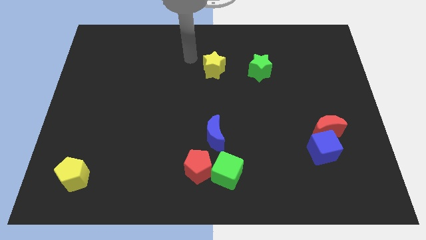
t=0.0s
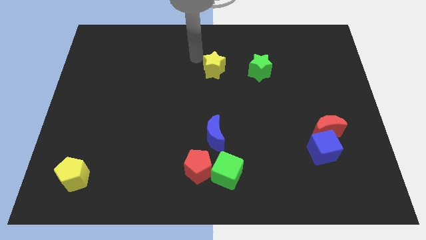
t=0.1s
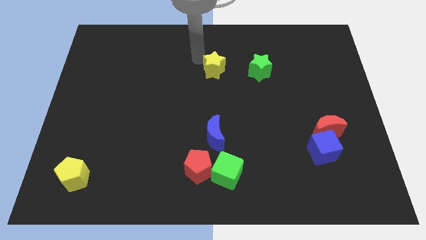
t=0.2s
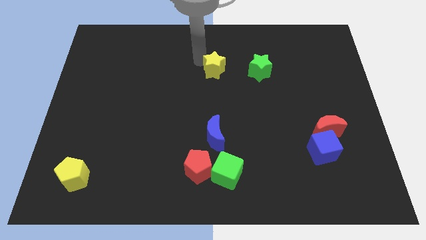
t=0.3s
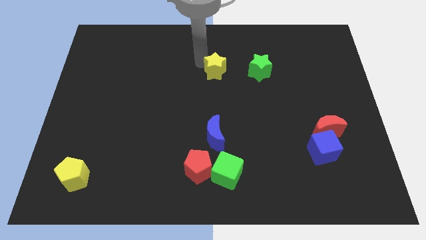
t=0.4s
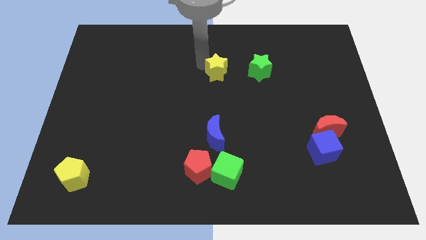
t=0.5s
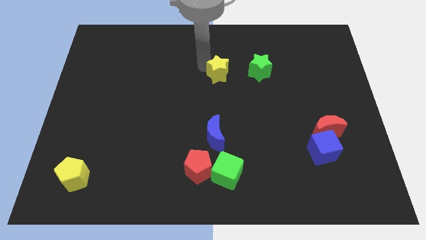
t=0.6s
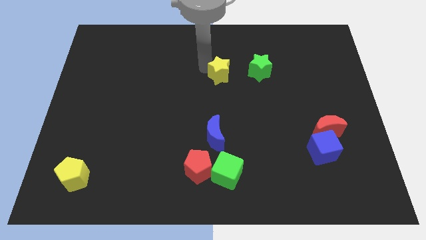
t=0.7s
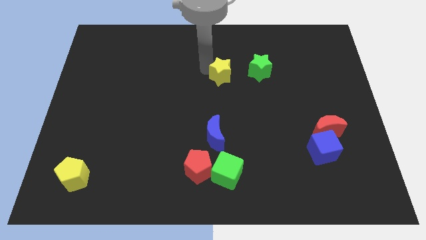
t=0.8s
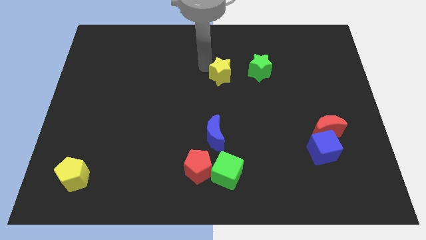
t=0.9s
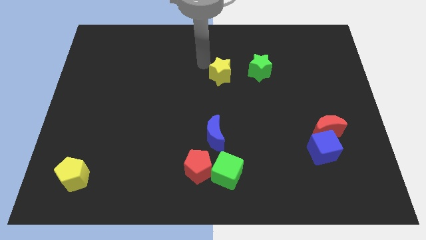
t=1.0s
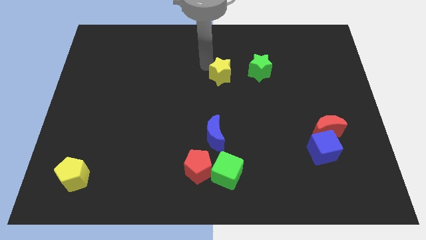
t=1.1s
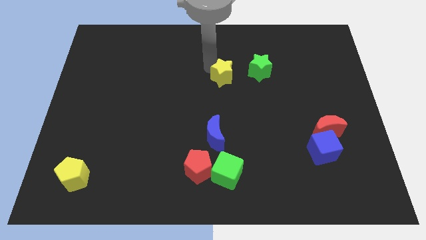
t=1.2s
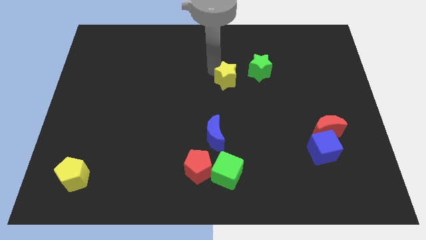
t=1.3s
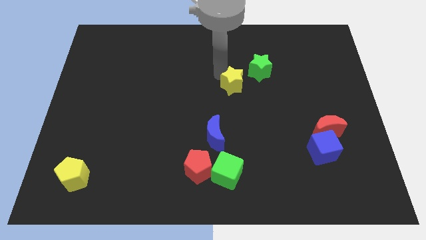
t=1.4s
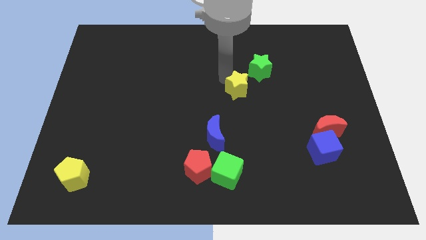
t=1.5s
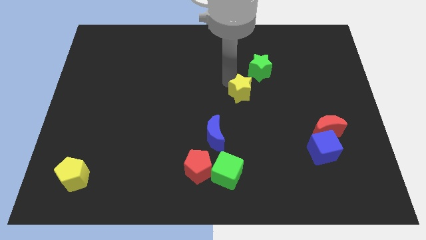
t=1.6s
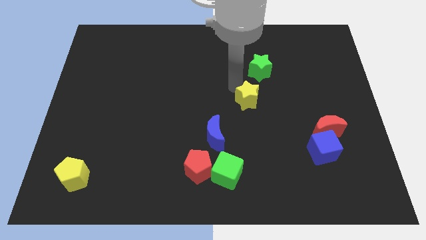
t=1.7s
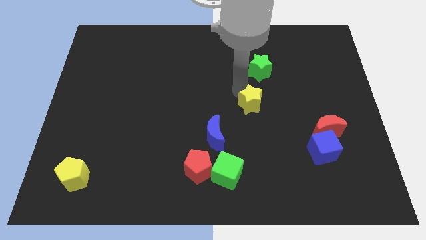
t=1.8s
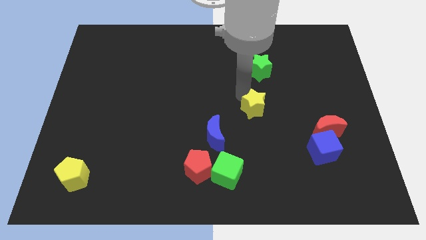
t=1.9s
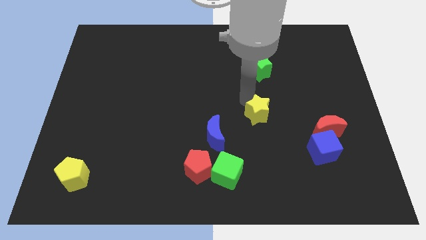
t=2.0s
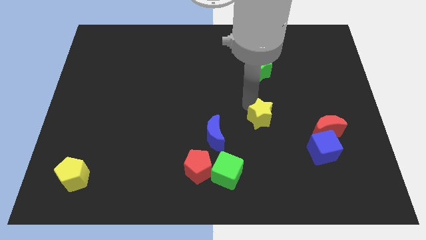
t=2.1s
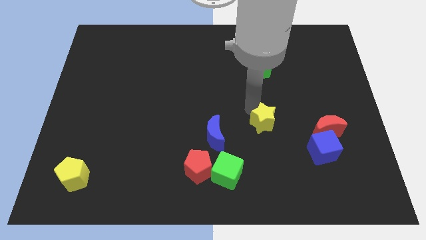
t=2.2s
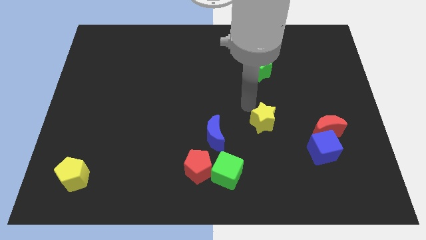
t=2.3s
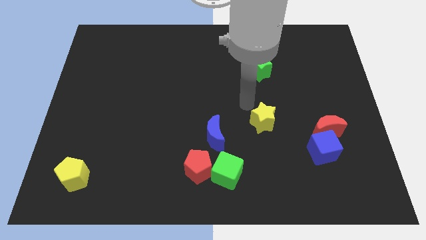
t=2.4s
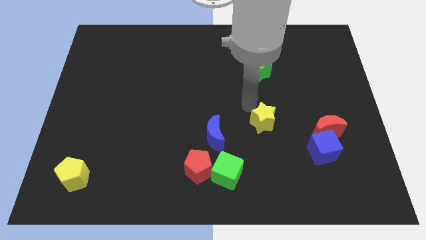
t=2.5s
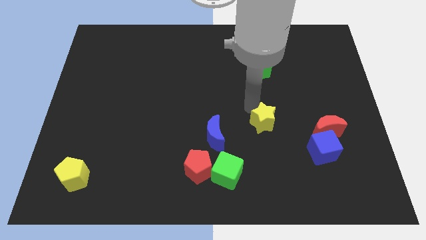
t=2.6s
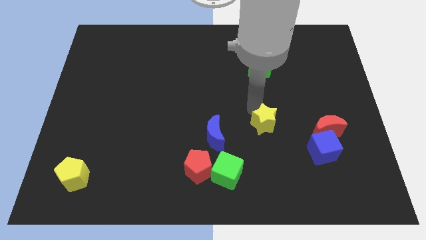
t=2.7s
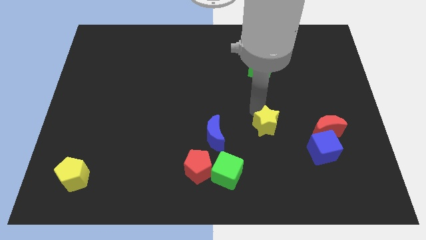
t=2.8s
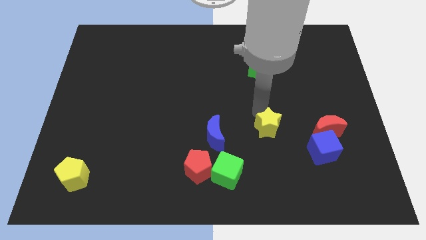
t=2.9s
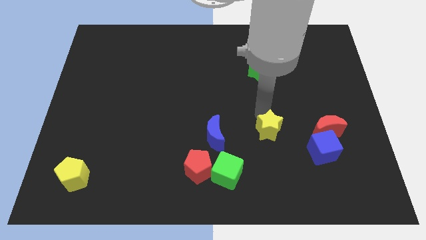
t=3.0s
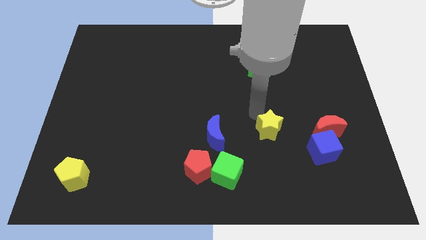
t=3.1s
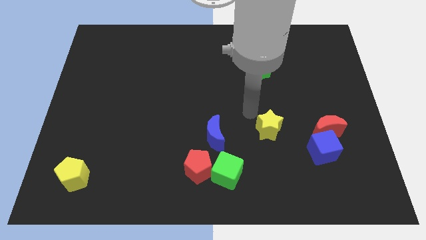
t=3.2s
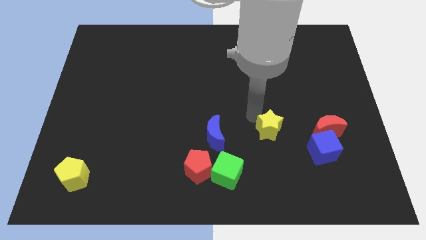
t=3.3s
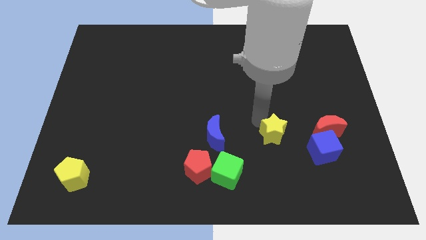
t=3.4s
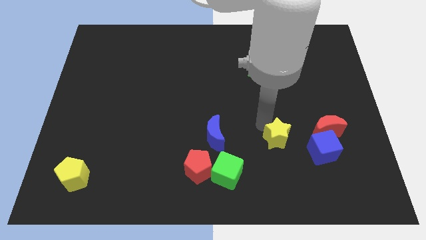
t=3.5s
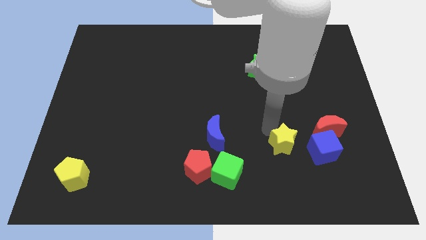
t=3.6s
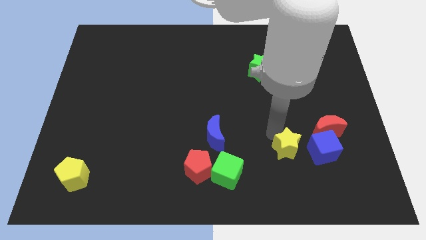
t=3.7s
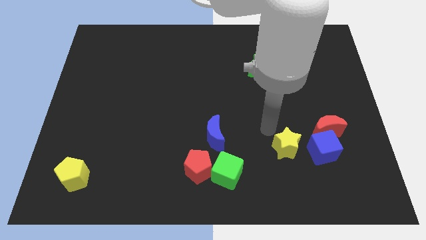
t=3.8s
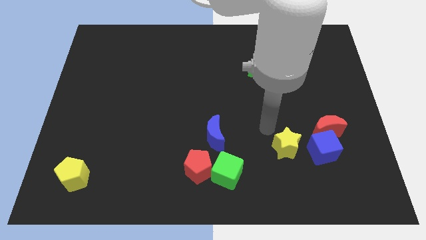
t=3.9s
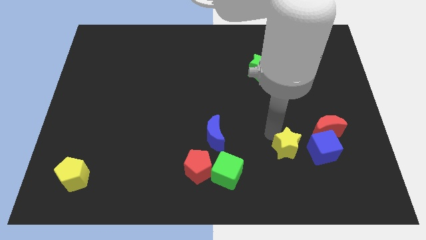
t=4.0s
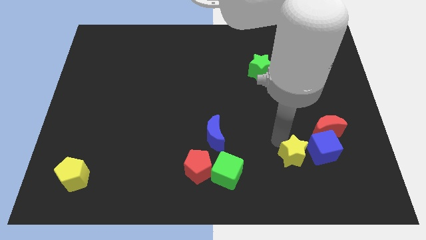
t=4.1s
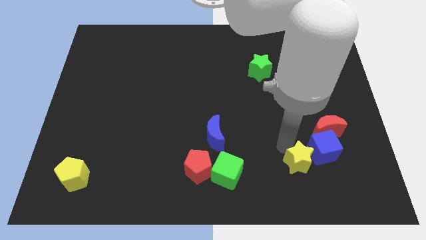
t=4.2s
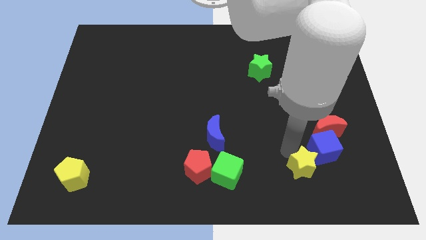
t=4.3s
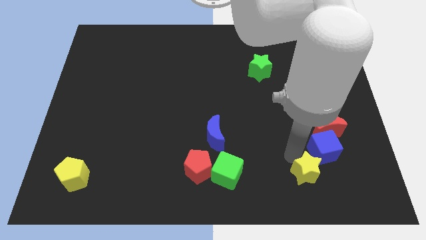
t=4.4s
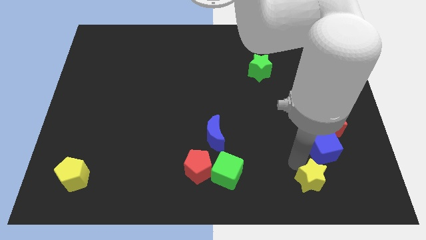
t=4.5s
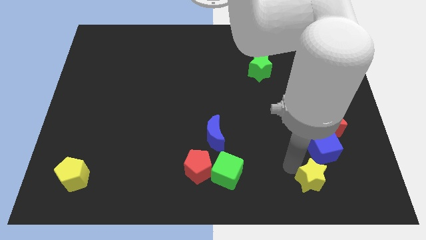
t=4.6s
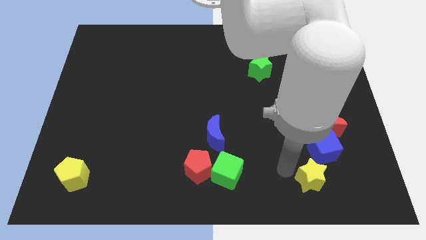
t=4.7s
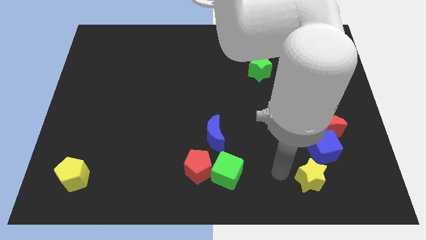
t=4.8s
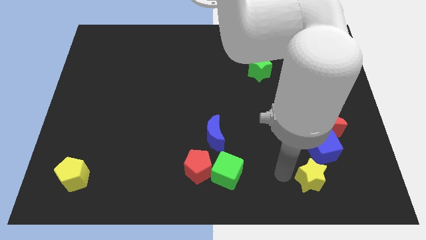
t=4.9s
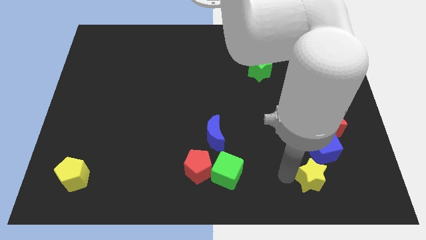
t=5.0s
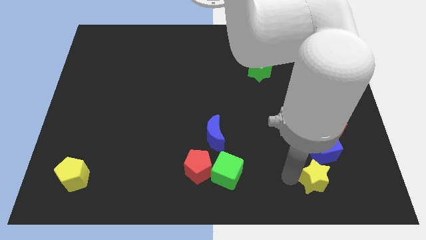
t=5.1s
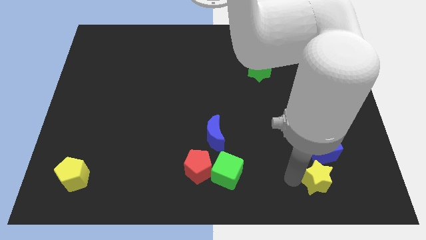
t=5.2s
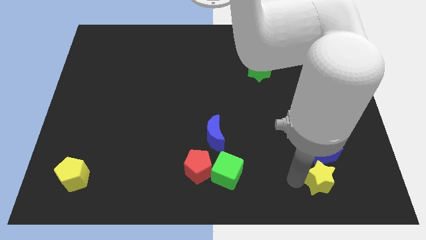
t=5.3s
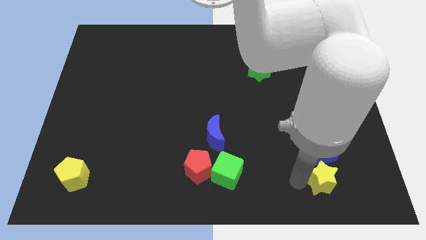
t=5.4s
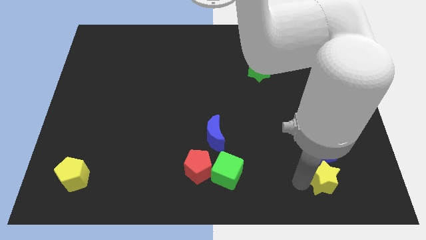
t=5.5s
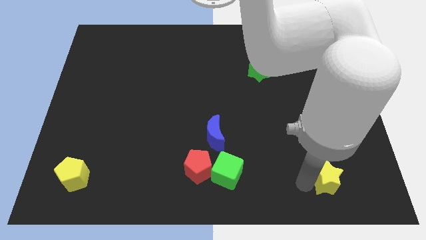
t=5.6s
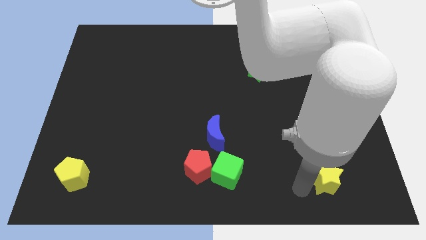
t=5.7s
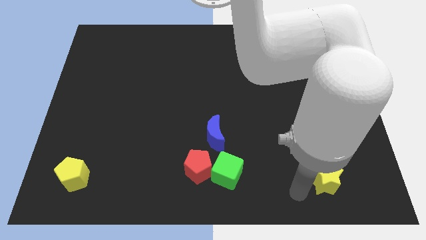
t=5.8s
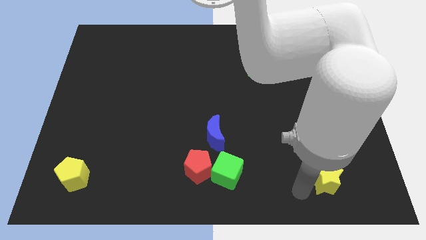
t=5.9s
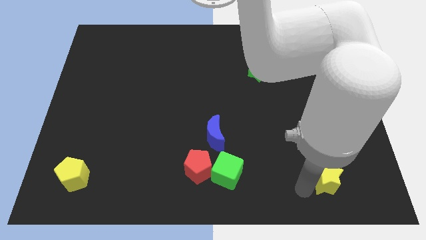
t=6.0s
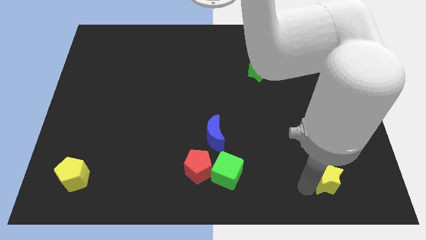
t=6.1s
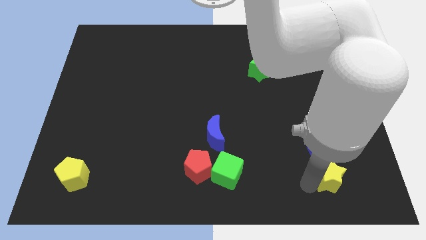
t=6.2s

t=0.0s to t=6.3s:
push the yellow star to the bottom right side of the blue cube
